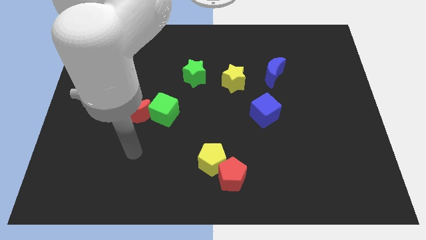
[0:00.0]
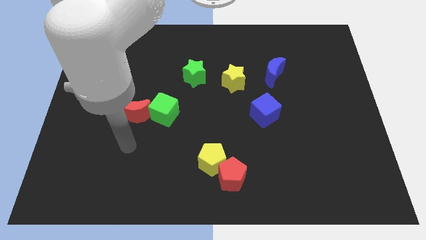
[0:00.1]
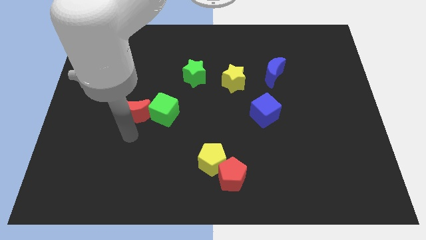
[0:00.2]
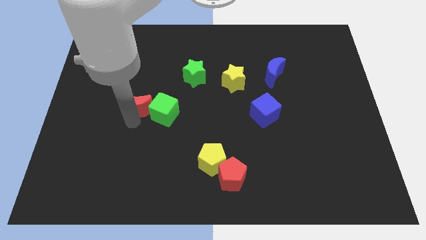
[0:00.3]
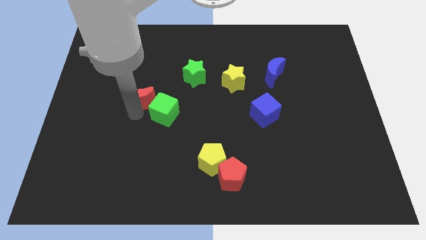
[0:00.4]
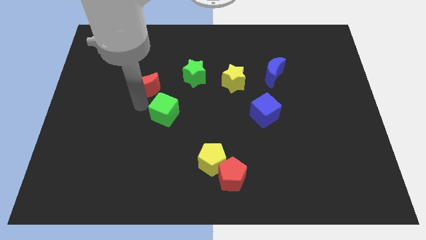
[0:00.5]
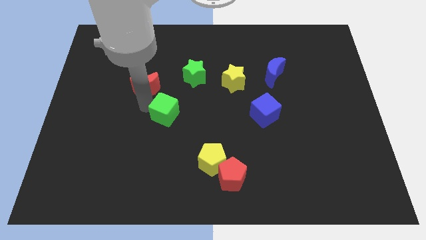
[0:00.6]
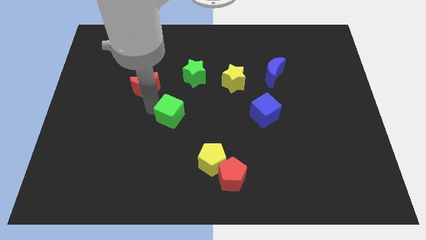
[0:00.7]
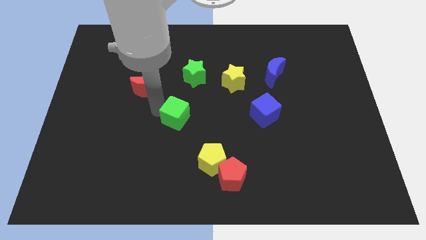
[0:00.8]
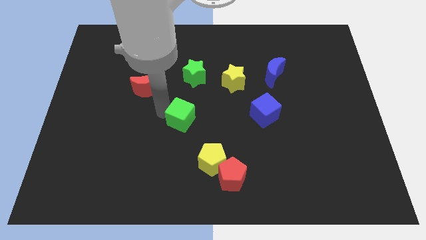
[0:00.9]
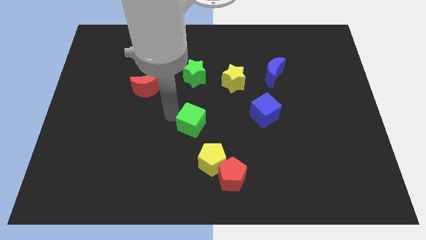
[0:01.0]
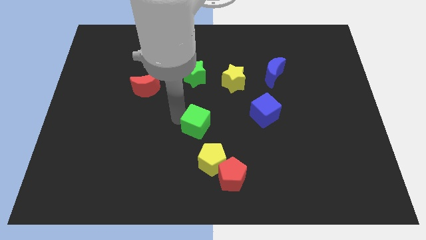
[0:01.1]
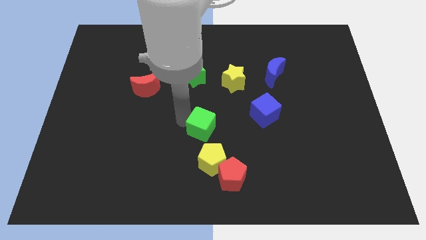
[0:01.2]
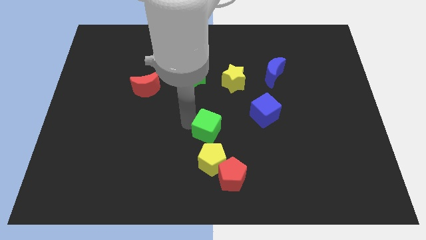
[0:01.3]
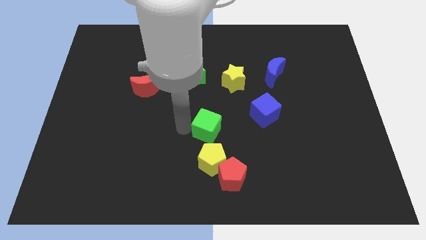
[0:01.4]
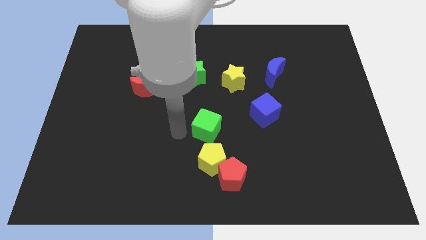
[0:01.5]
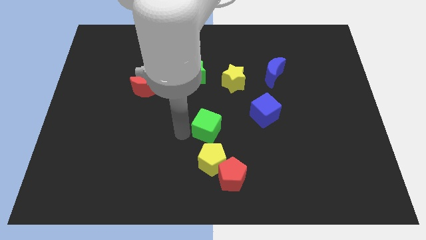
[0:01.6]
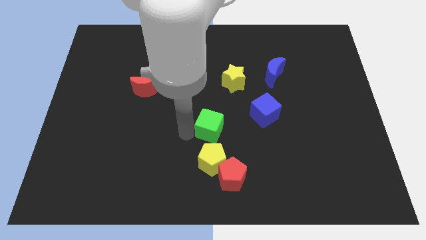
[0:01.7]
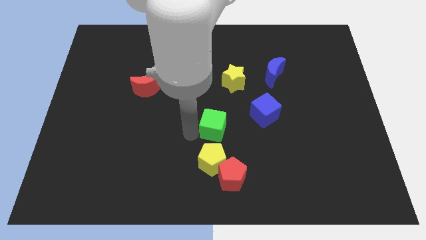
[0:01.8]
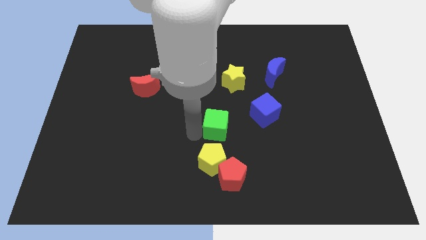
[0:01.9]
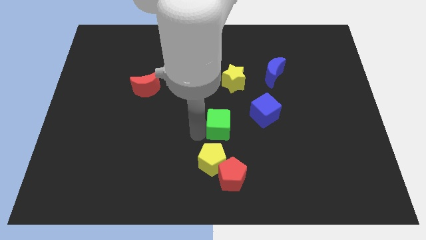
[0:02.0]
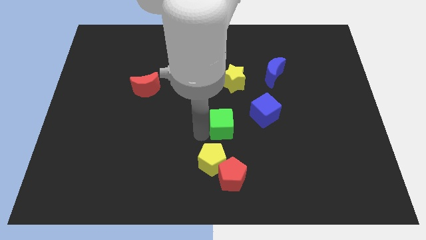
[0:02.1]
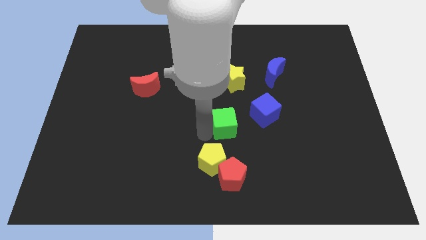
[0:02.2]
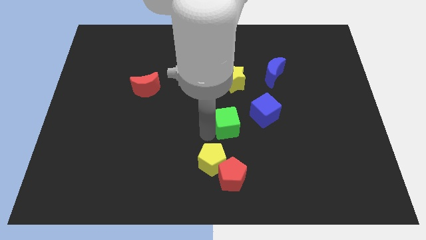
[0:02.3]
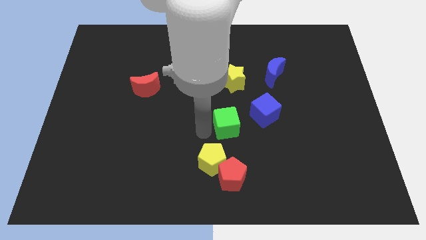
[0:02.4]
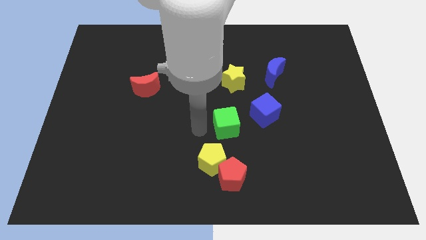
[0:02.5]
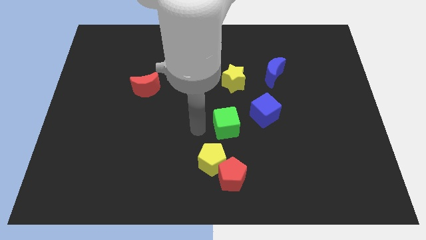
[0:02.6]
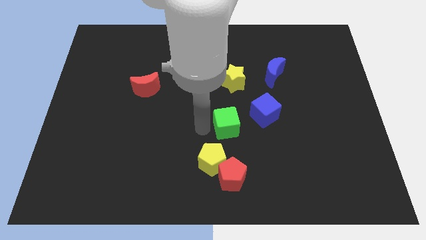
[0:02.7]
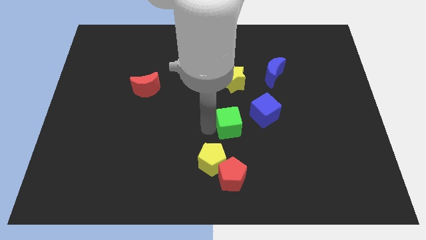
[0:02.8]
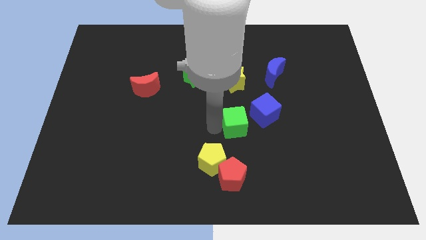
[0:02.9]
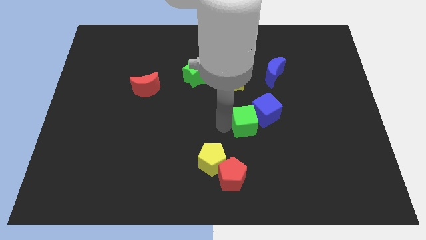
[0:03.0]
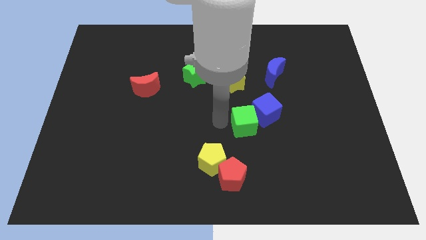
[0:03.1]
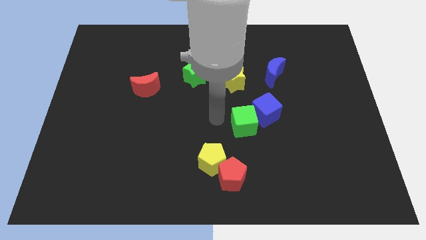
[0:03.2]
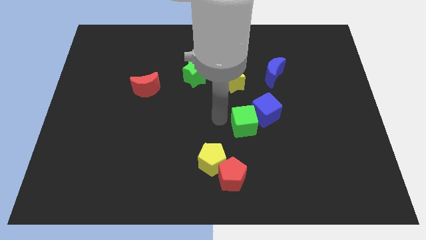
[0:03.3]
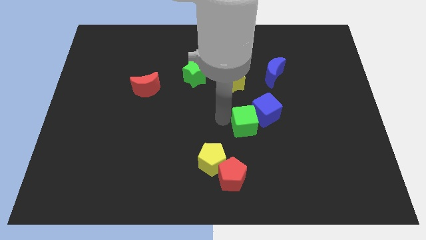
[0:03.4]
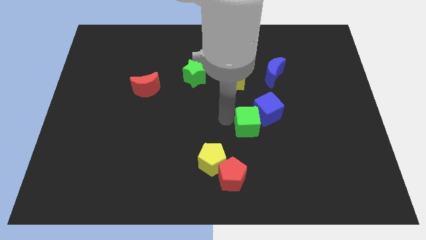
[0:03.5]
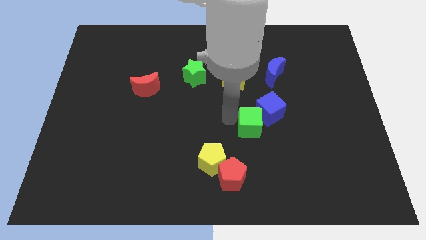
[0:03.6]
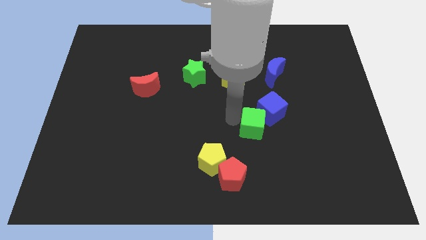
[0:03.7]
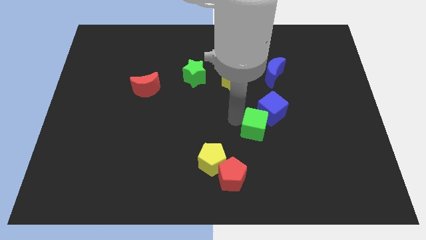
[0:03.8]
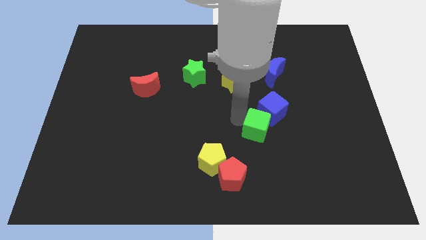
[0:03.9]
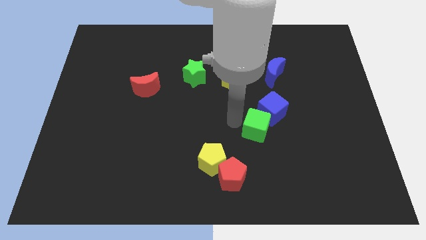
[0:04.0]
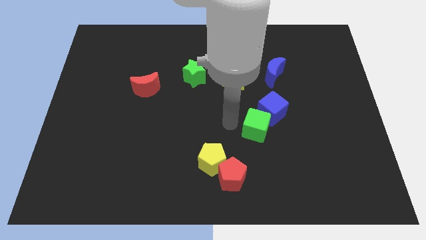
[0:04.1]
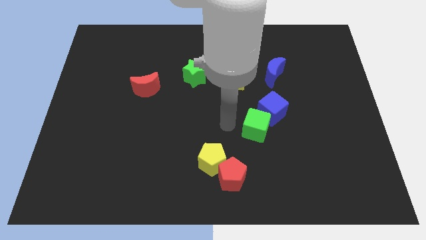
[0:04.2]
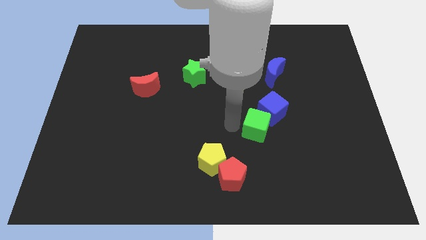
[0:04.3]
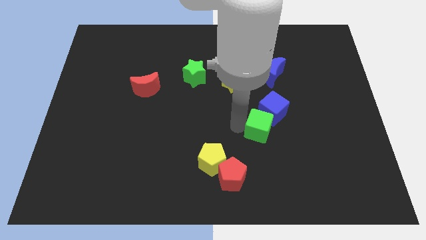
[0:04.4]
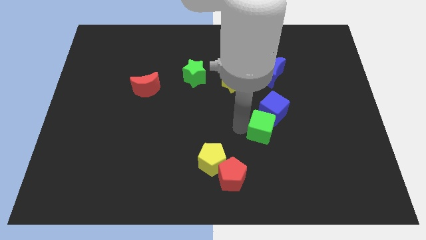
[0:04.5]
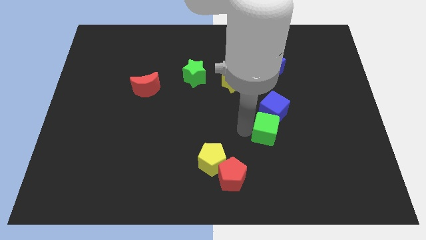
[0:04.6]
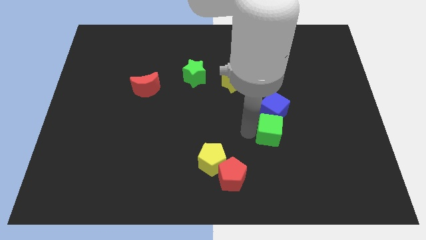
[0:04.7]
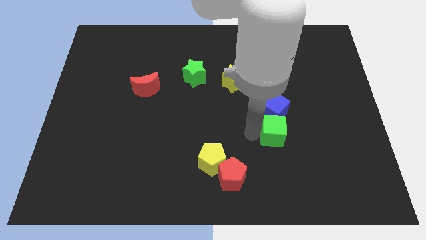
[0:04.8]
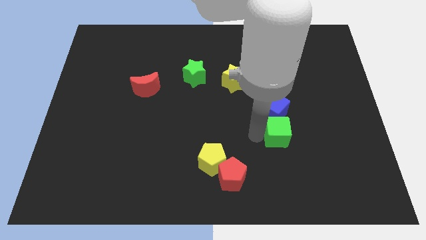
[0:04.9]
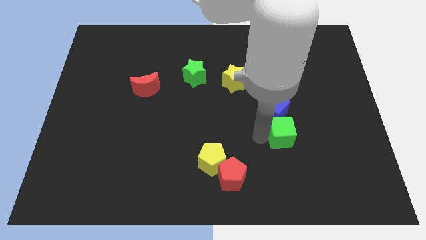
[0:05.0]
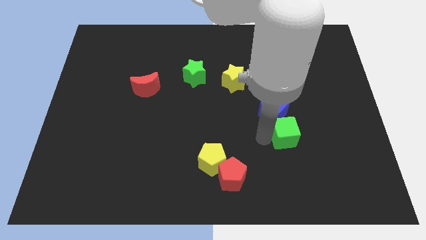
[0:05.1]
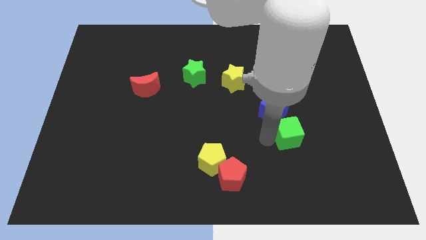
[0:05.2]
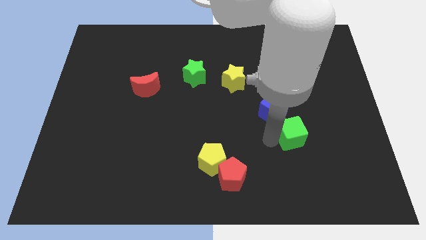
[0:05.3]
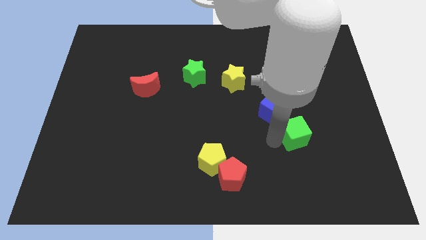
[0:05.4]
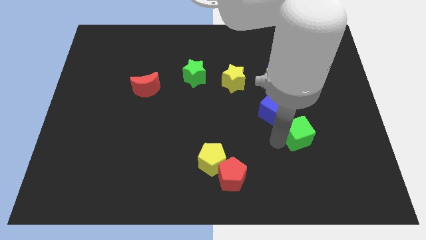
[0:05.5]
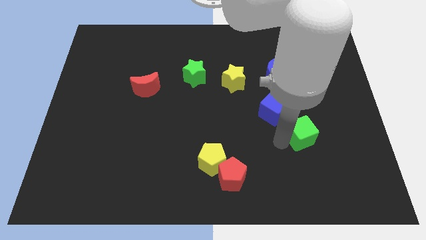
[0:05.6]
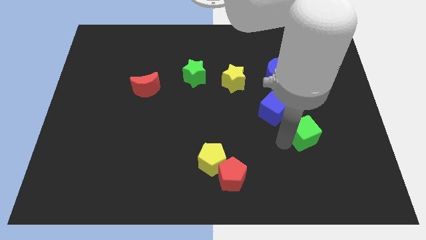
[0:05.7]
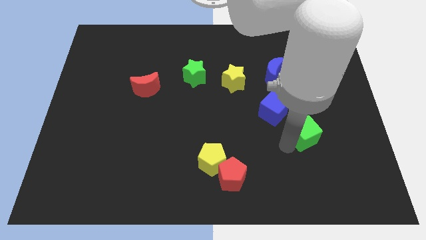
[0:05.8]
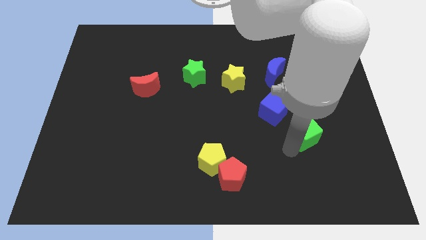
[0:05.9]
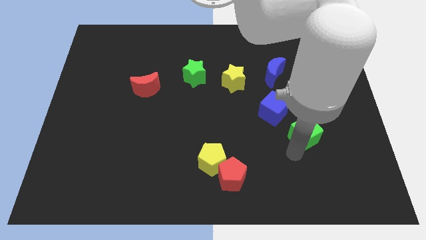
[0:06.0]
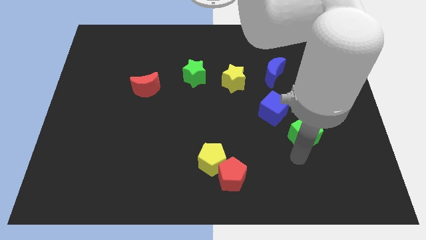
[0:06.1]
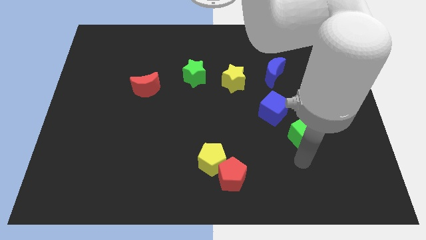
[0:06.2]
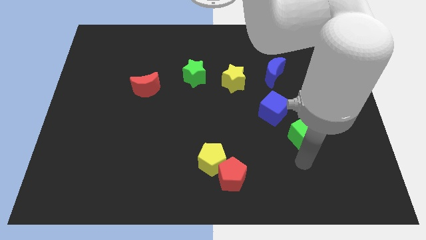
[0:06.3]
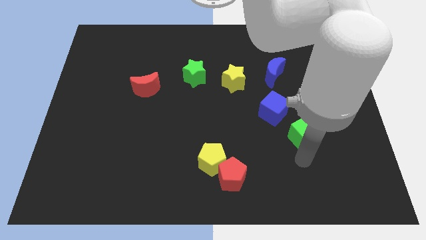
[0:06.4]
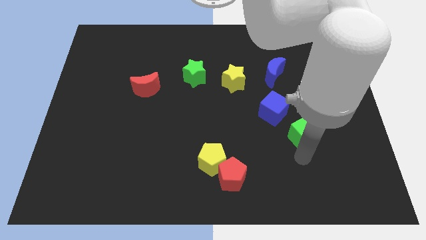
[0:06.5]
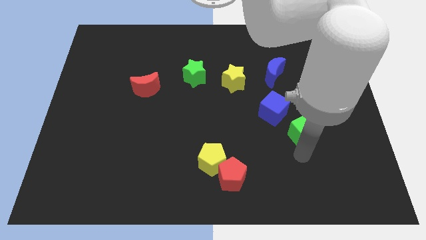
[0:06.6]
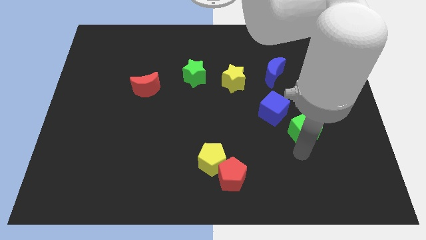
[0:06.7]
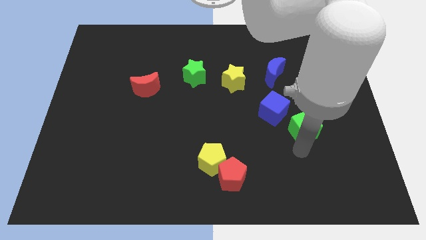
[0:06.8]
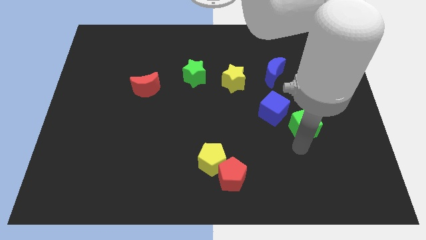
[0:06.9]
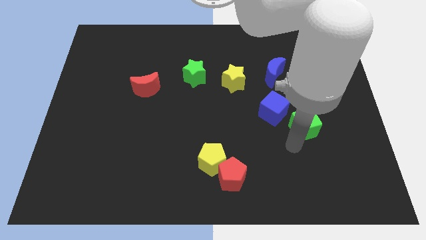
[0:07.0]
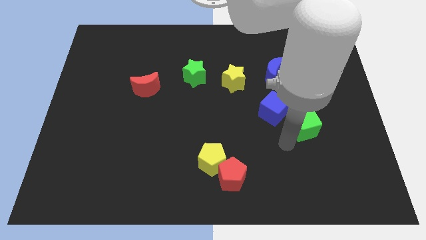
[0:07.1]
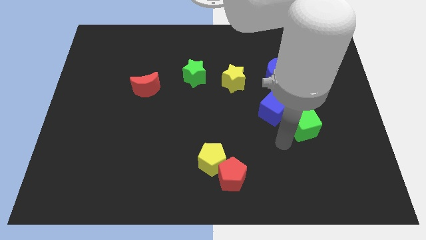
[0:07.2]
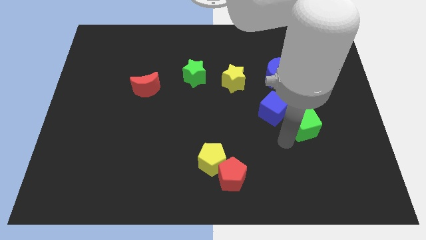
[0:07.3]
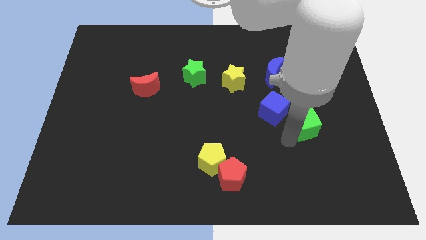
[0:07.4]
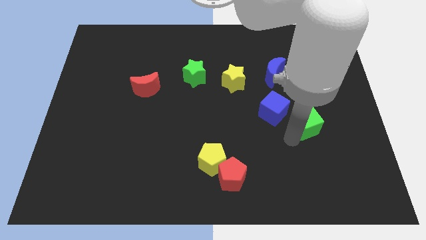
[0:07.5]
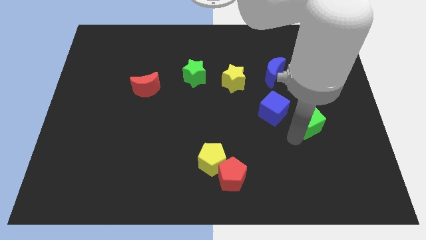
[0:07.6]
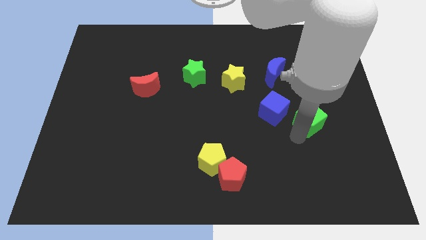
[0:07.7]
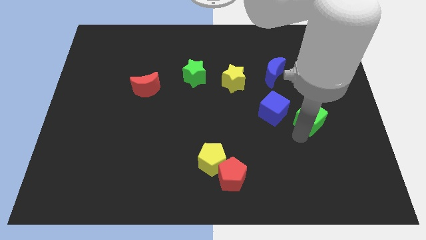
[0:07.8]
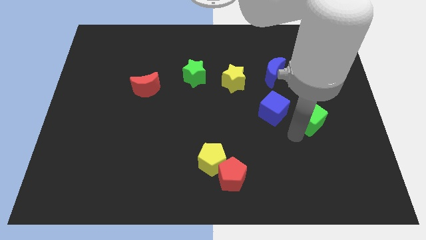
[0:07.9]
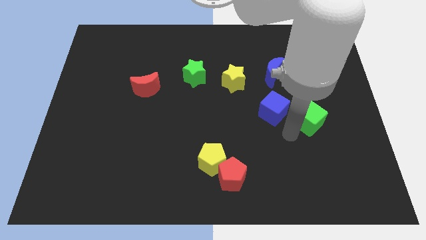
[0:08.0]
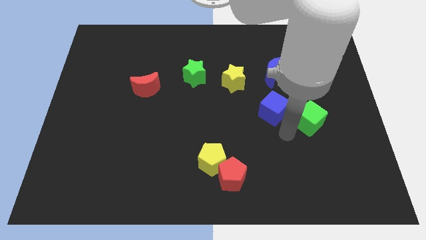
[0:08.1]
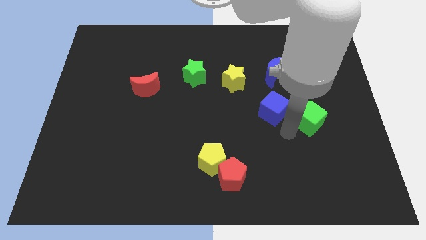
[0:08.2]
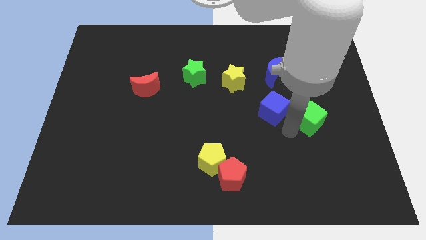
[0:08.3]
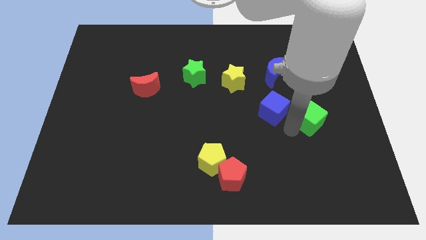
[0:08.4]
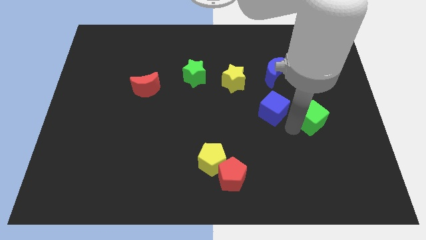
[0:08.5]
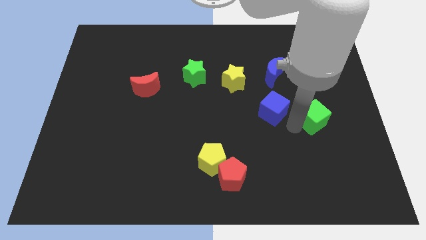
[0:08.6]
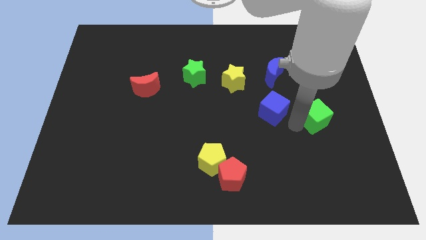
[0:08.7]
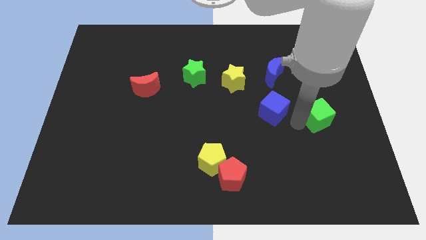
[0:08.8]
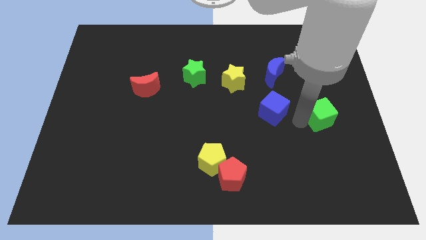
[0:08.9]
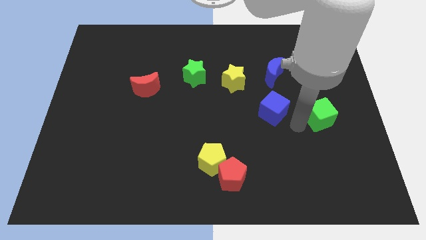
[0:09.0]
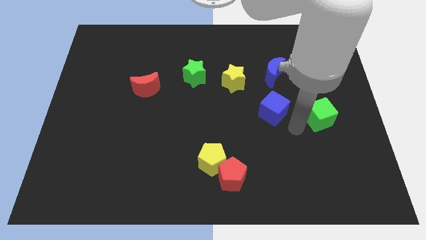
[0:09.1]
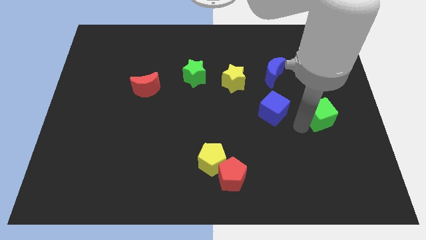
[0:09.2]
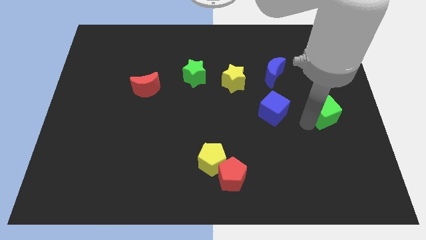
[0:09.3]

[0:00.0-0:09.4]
put the green cube to the center right
